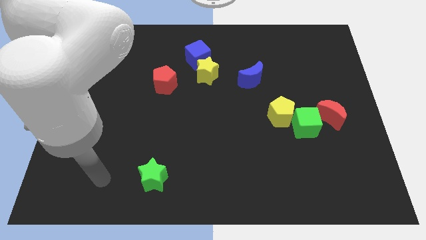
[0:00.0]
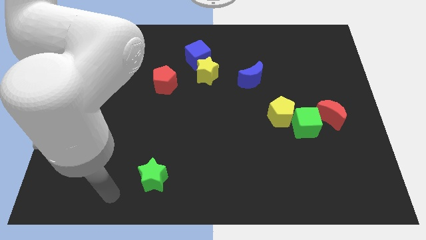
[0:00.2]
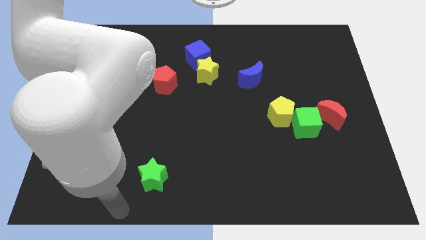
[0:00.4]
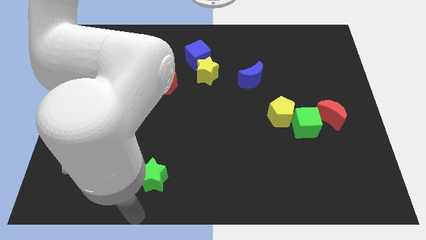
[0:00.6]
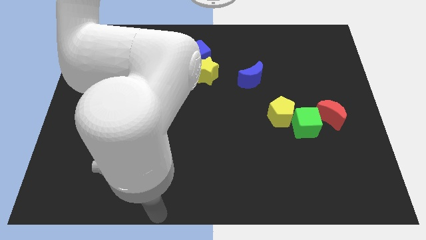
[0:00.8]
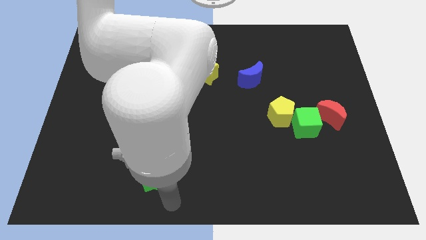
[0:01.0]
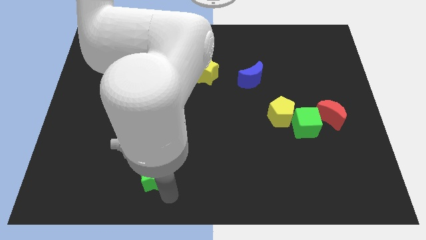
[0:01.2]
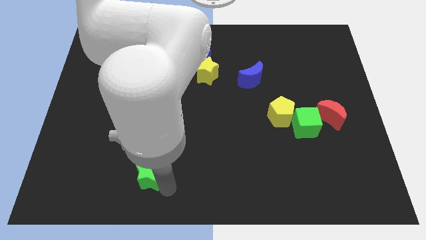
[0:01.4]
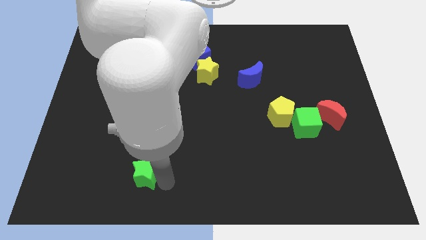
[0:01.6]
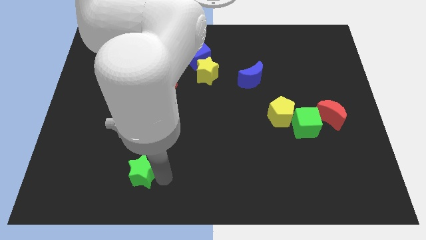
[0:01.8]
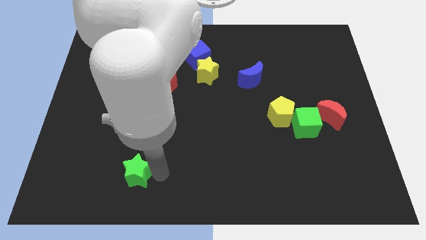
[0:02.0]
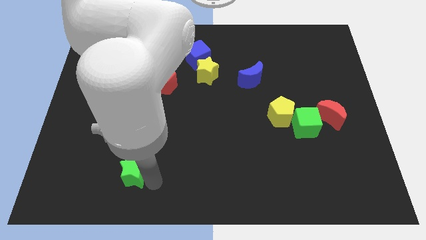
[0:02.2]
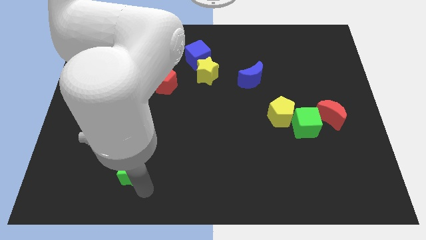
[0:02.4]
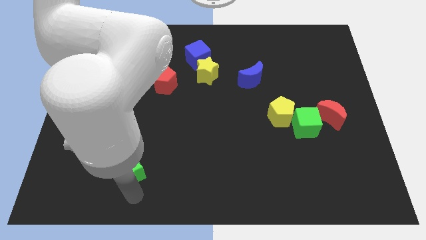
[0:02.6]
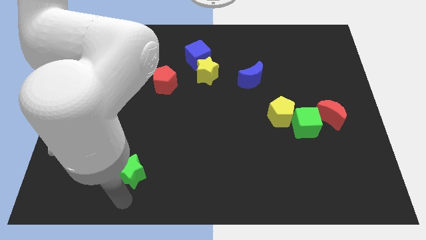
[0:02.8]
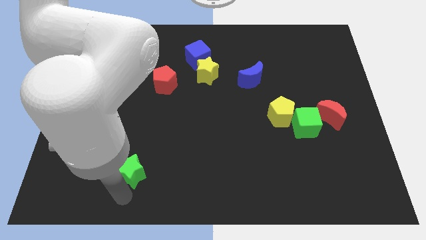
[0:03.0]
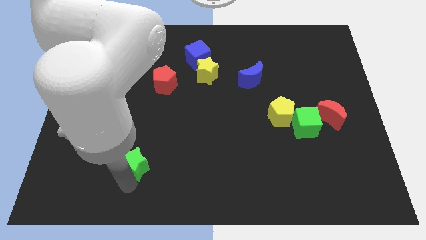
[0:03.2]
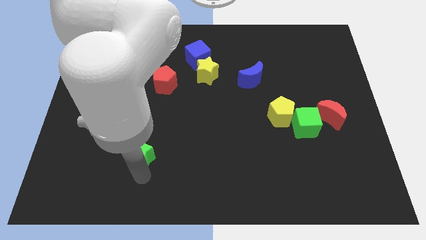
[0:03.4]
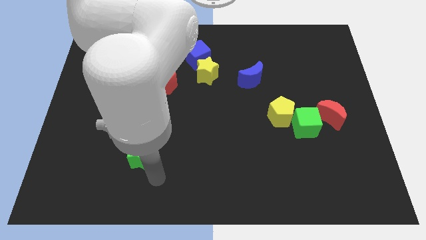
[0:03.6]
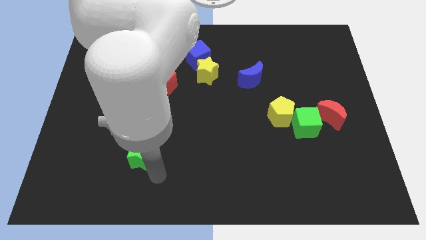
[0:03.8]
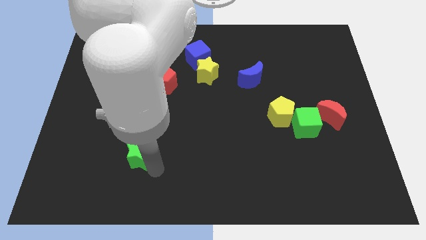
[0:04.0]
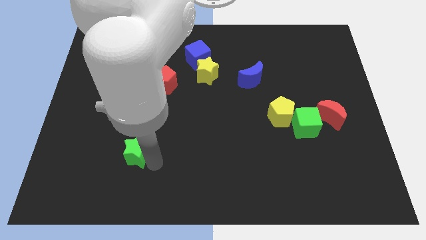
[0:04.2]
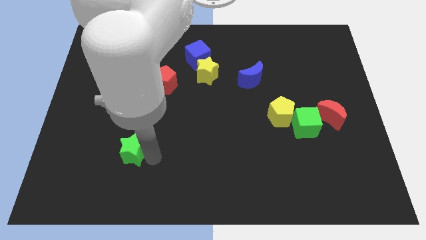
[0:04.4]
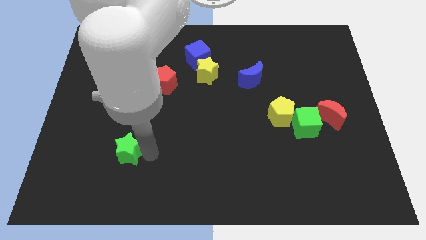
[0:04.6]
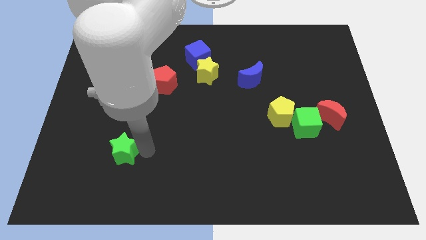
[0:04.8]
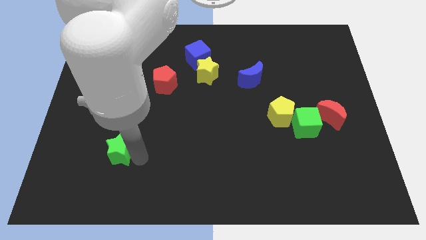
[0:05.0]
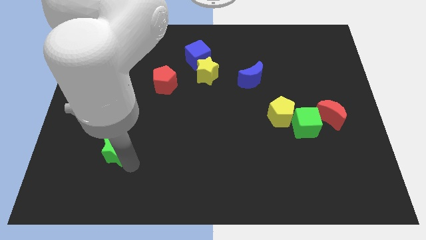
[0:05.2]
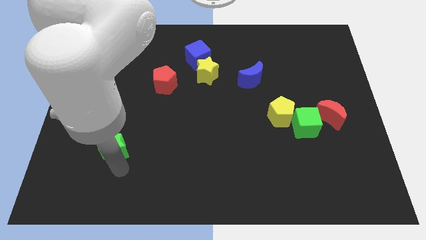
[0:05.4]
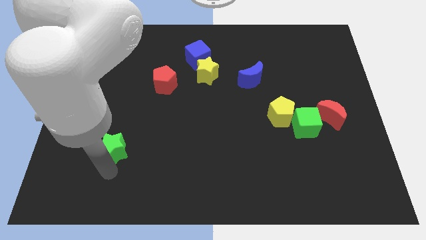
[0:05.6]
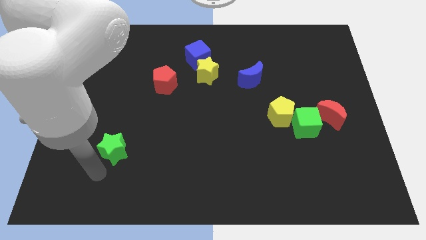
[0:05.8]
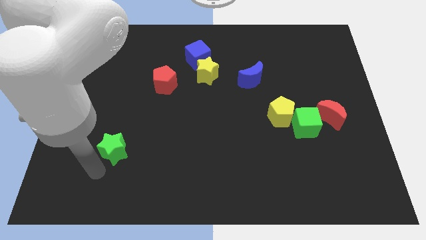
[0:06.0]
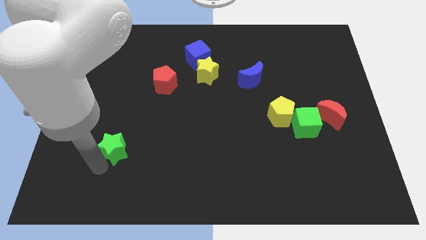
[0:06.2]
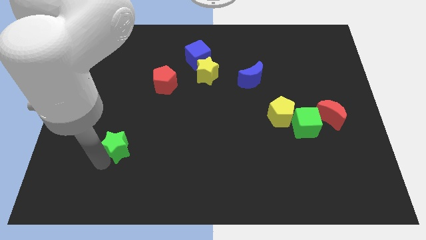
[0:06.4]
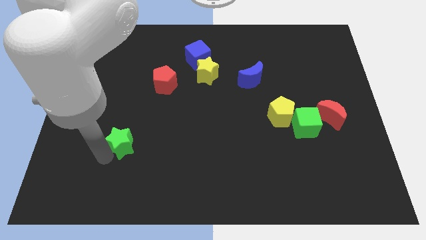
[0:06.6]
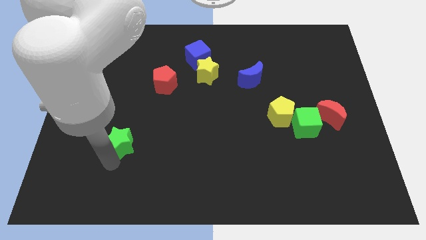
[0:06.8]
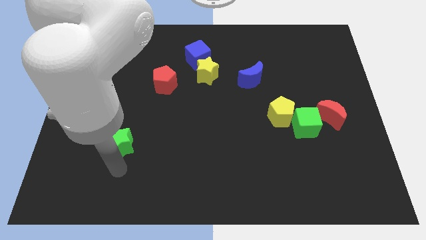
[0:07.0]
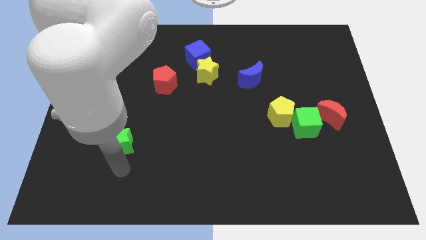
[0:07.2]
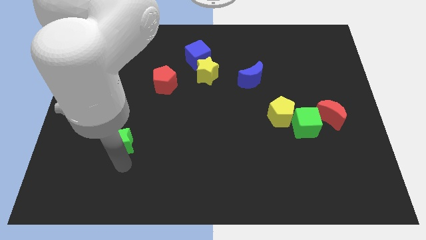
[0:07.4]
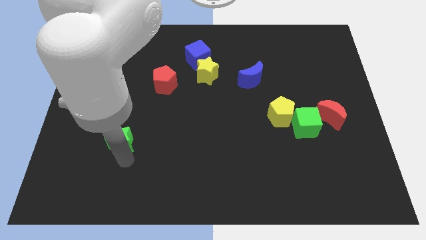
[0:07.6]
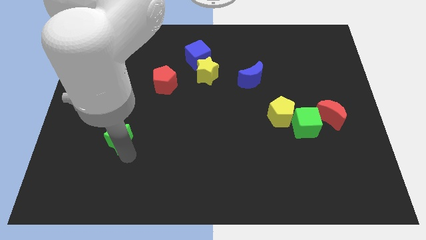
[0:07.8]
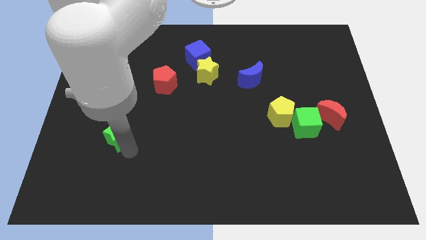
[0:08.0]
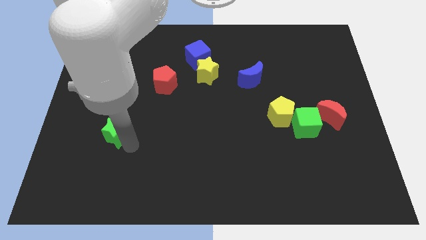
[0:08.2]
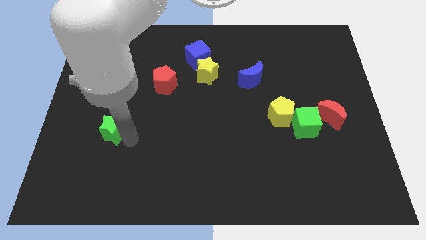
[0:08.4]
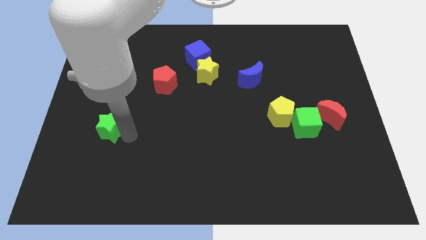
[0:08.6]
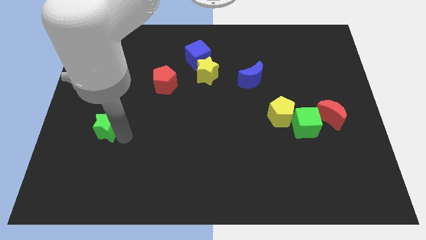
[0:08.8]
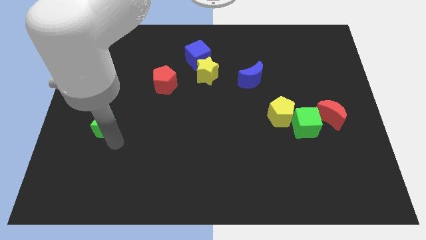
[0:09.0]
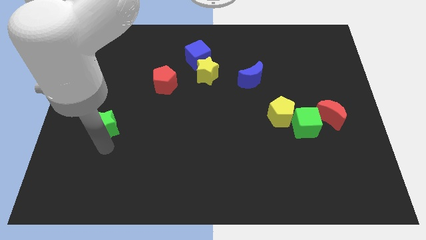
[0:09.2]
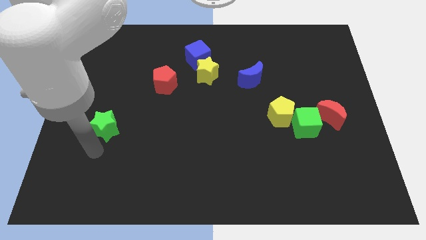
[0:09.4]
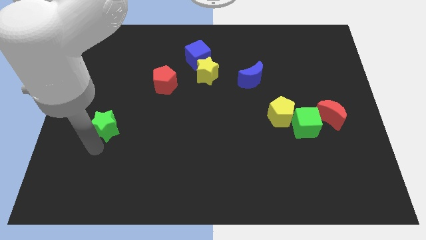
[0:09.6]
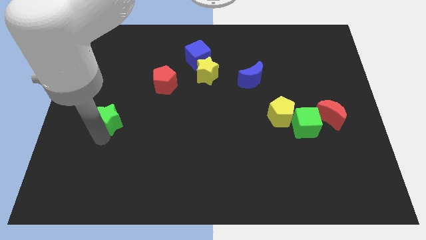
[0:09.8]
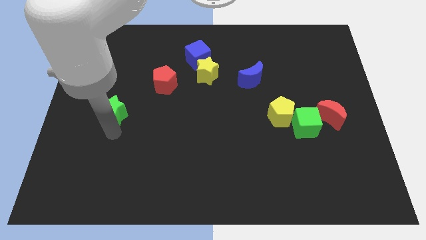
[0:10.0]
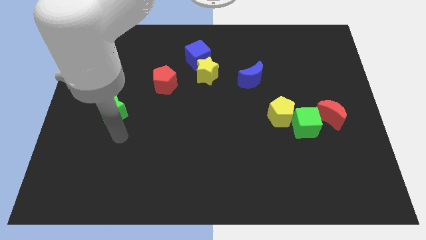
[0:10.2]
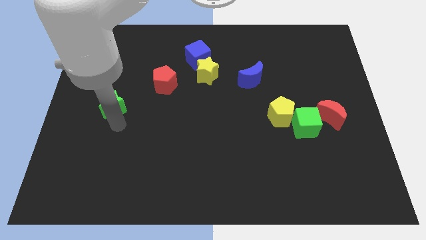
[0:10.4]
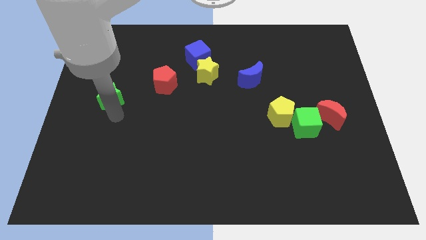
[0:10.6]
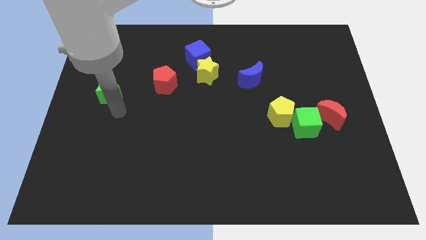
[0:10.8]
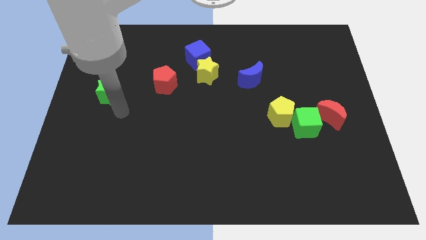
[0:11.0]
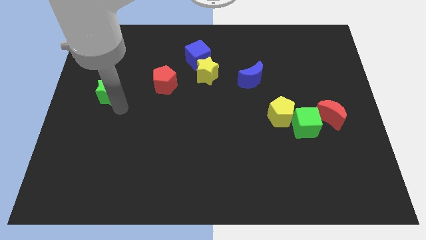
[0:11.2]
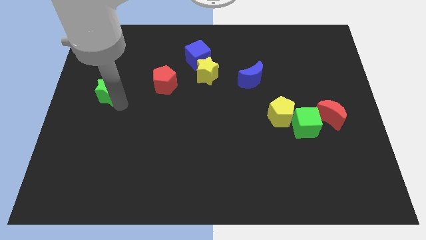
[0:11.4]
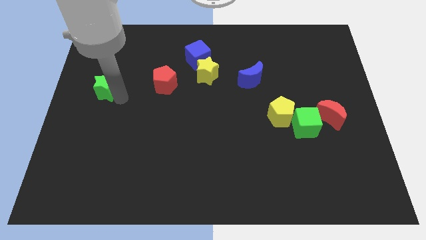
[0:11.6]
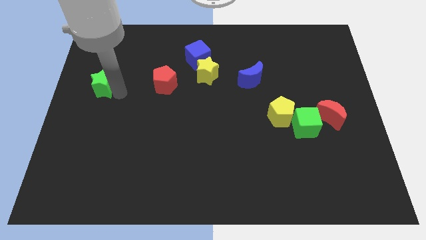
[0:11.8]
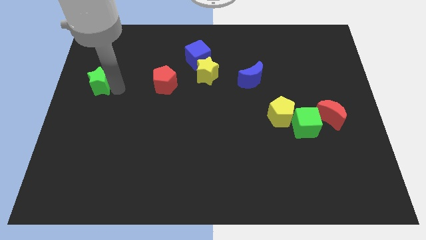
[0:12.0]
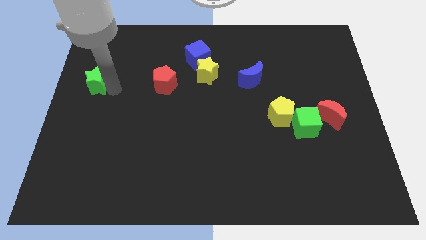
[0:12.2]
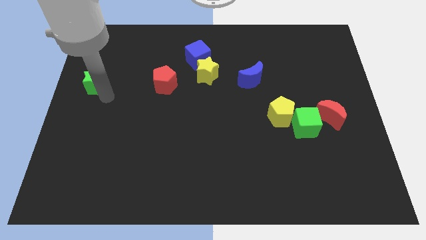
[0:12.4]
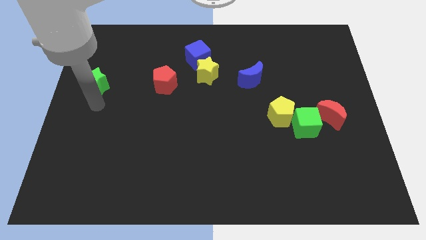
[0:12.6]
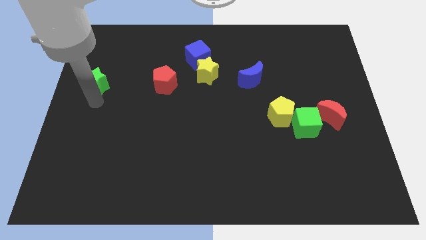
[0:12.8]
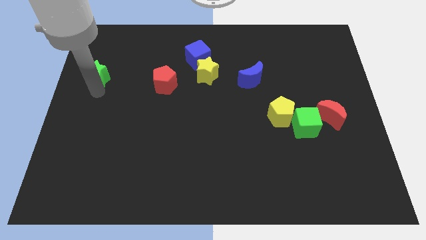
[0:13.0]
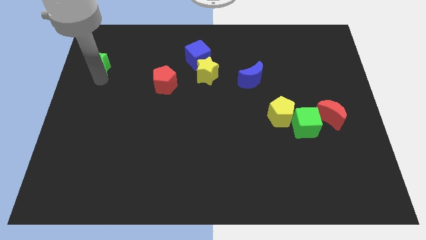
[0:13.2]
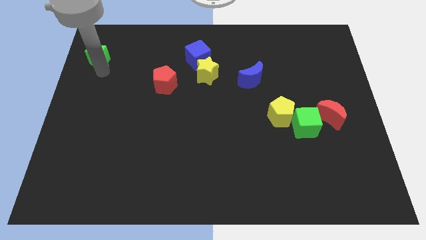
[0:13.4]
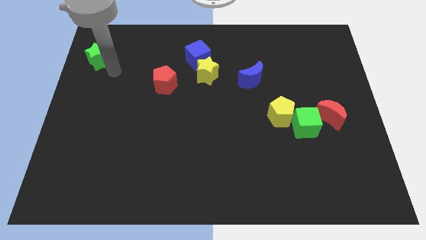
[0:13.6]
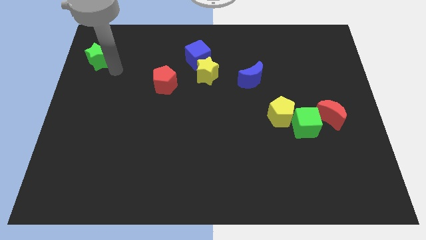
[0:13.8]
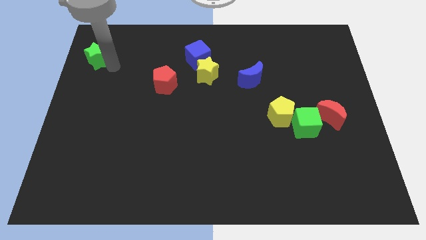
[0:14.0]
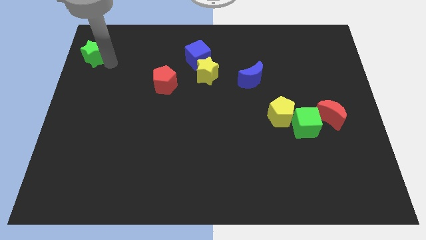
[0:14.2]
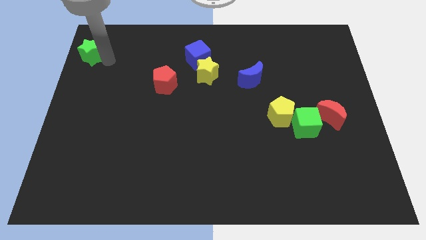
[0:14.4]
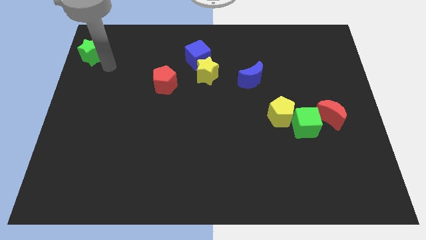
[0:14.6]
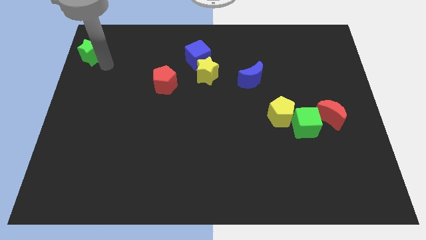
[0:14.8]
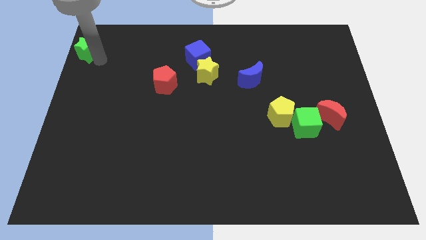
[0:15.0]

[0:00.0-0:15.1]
put the green star to the top left of the board
